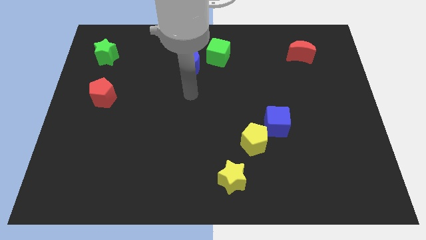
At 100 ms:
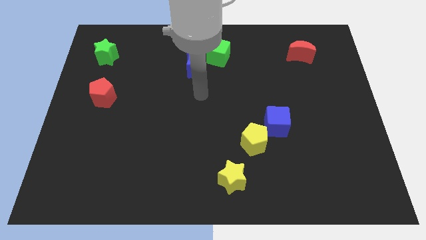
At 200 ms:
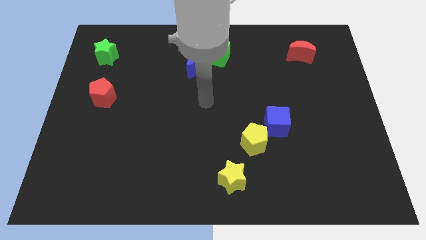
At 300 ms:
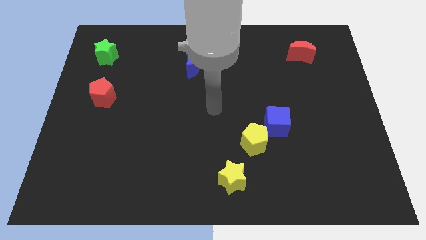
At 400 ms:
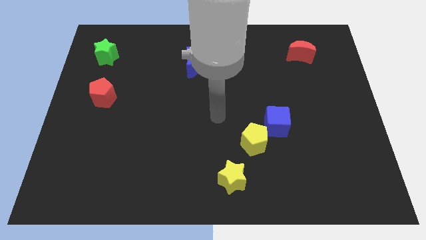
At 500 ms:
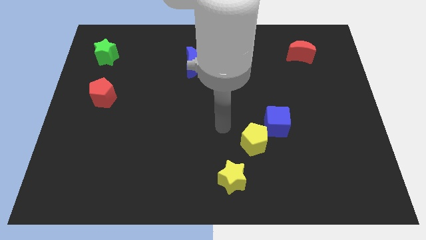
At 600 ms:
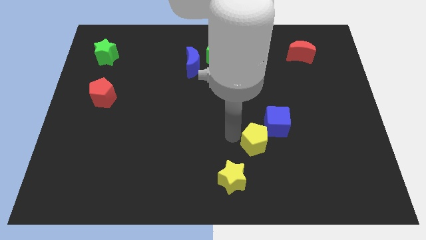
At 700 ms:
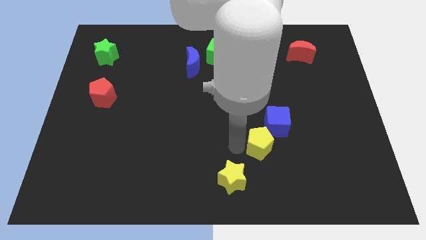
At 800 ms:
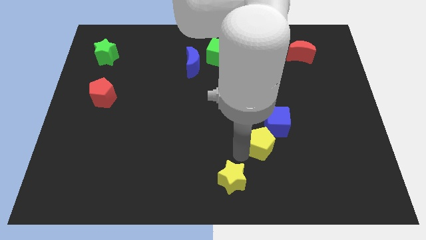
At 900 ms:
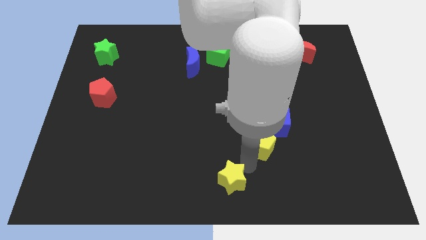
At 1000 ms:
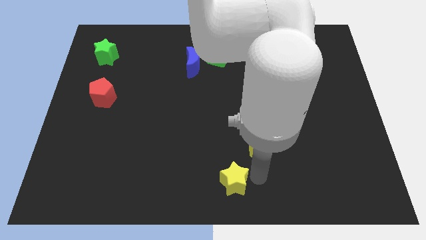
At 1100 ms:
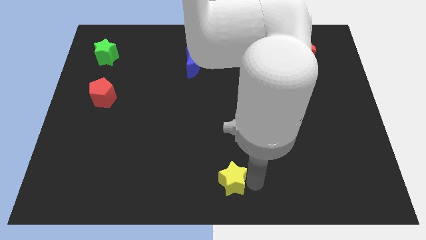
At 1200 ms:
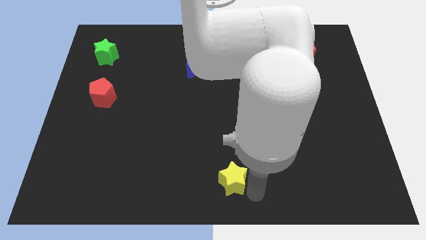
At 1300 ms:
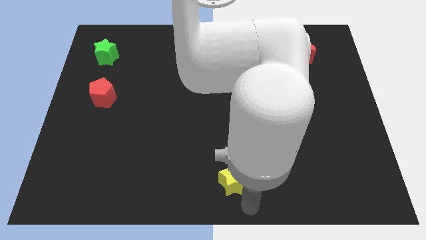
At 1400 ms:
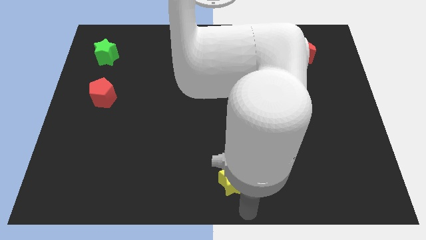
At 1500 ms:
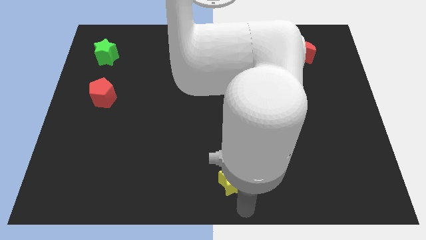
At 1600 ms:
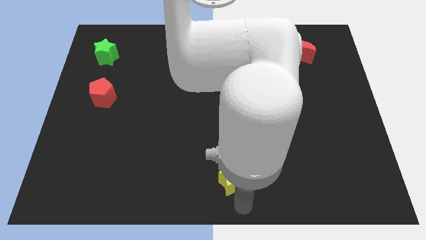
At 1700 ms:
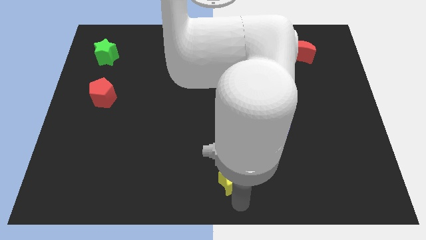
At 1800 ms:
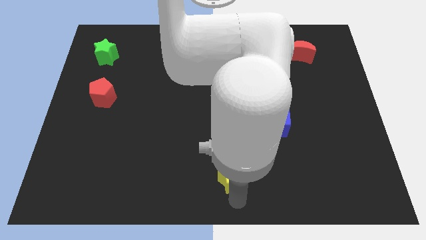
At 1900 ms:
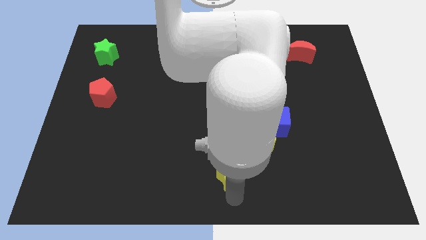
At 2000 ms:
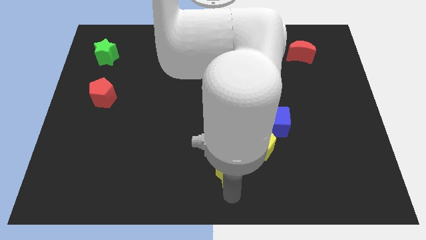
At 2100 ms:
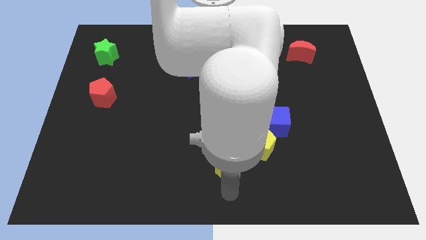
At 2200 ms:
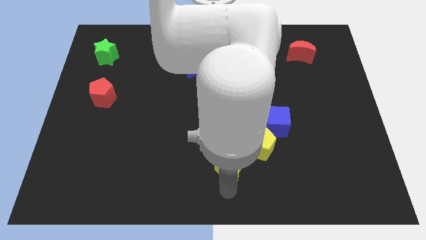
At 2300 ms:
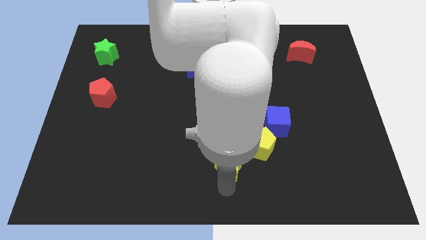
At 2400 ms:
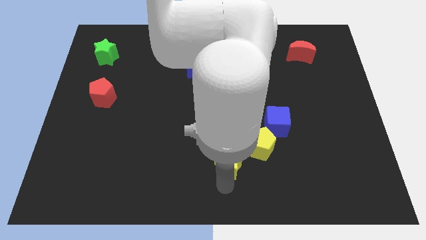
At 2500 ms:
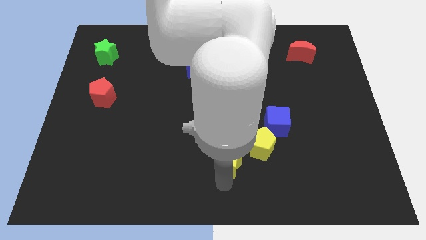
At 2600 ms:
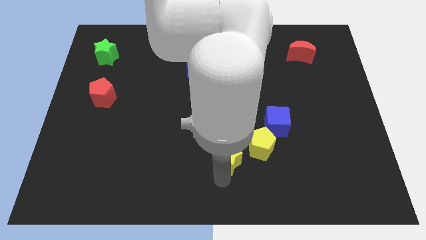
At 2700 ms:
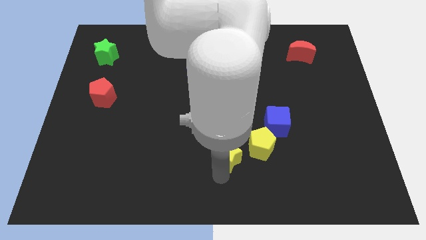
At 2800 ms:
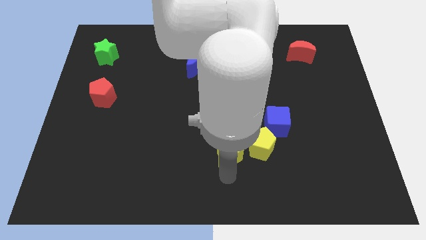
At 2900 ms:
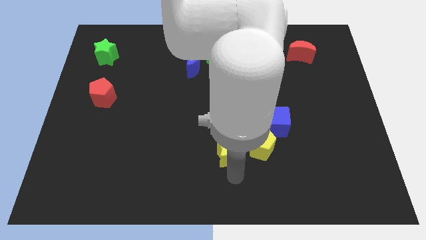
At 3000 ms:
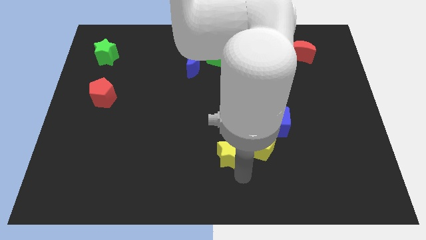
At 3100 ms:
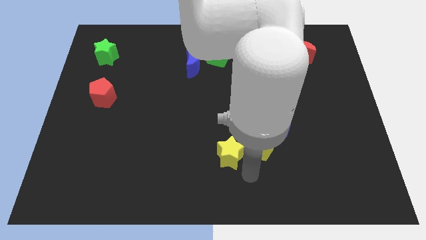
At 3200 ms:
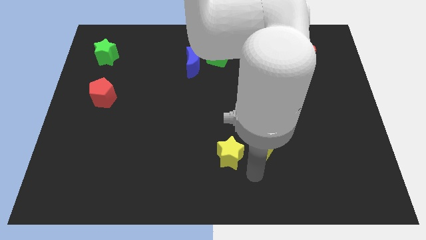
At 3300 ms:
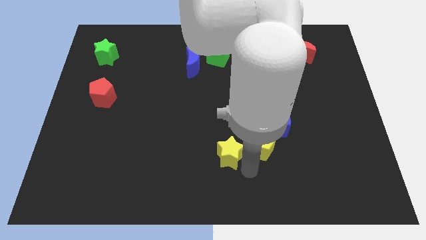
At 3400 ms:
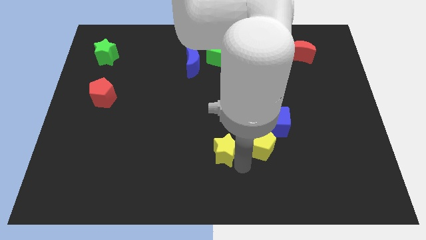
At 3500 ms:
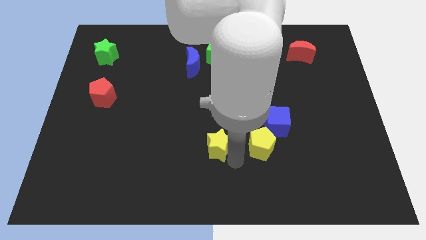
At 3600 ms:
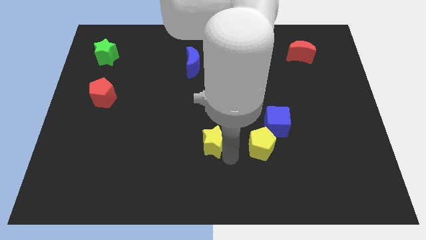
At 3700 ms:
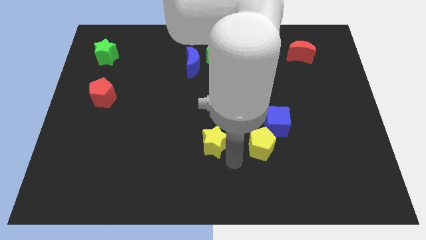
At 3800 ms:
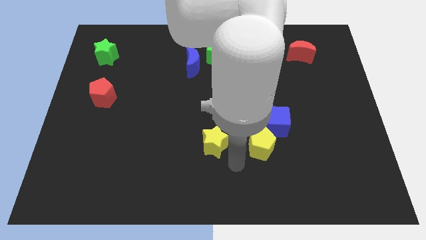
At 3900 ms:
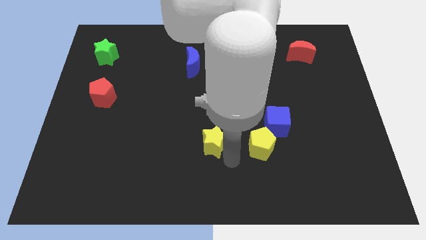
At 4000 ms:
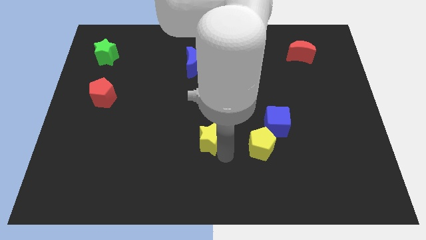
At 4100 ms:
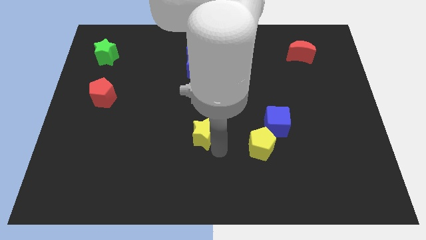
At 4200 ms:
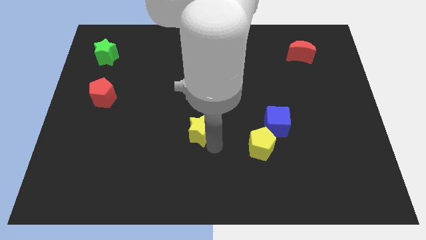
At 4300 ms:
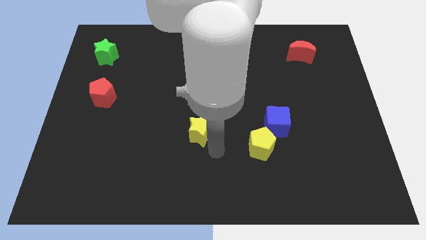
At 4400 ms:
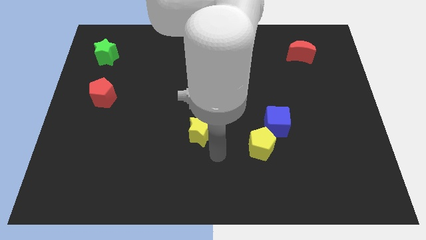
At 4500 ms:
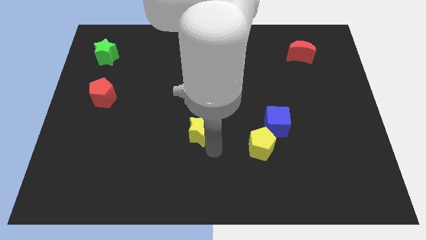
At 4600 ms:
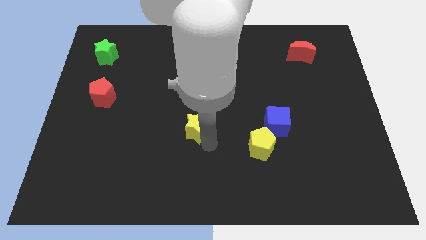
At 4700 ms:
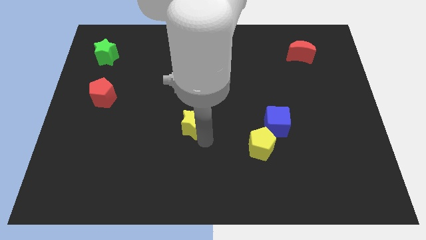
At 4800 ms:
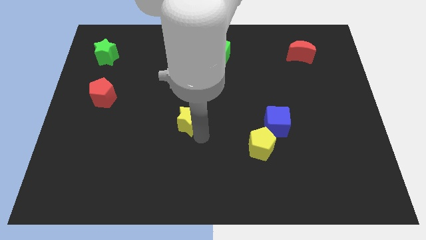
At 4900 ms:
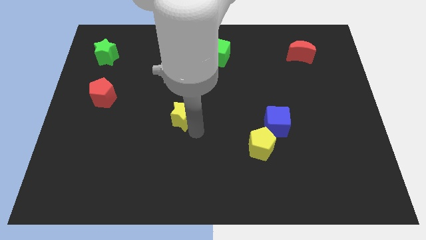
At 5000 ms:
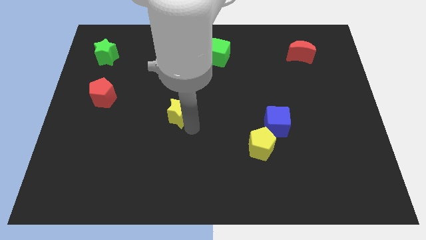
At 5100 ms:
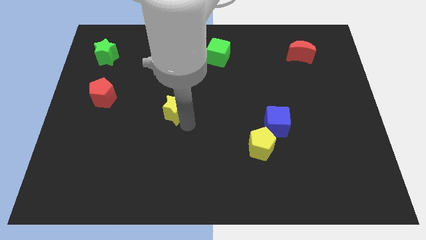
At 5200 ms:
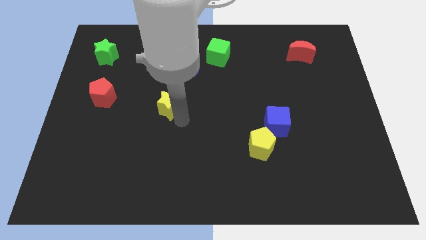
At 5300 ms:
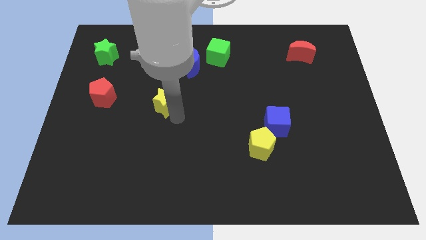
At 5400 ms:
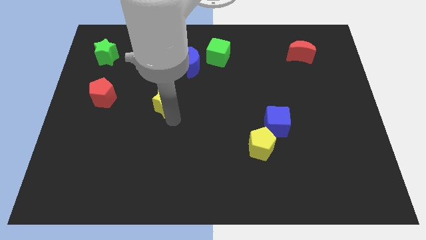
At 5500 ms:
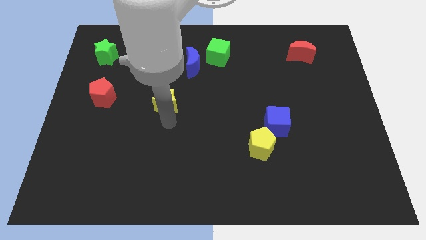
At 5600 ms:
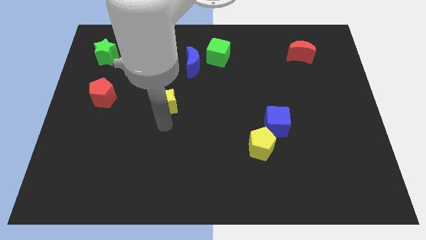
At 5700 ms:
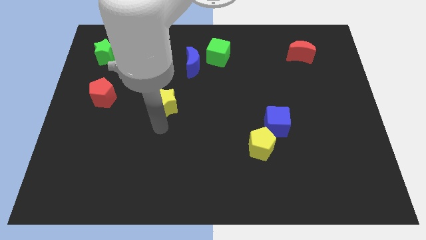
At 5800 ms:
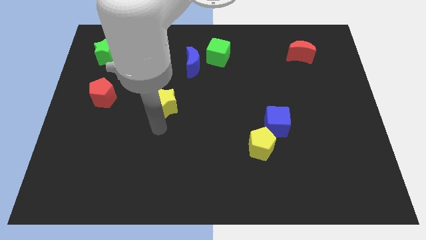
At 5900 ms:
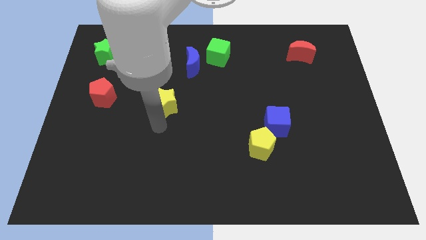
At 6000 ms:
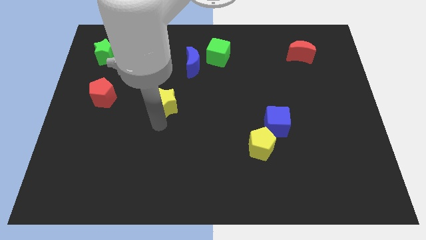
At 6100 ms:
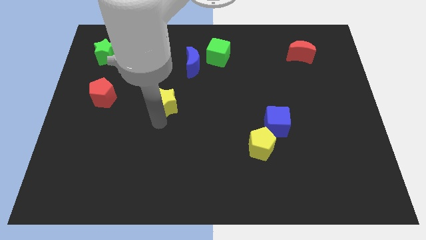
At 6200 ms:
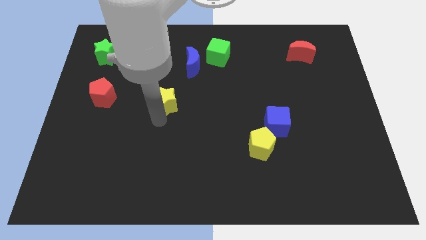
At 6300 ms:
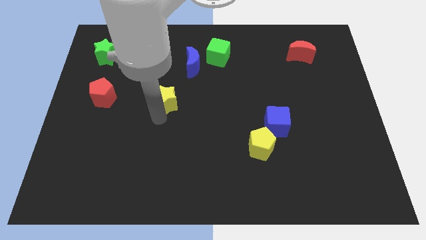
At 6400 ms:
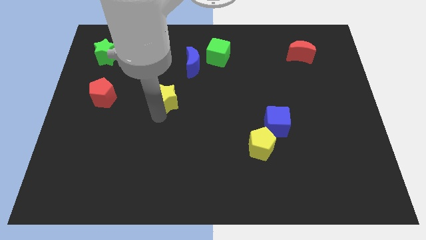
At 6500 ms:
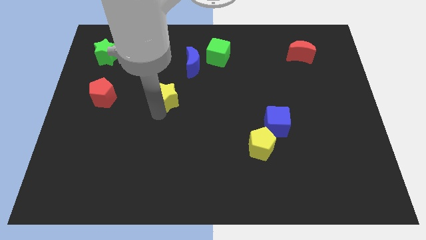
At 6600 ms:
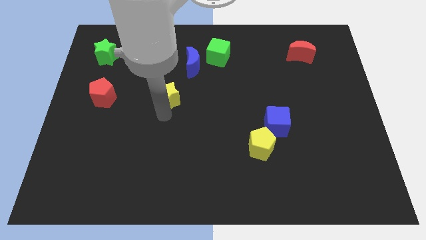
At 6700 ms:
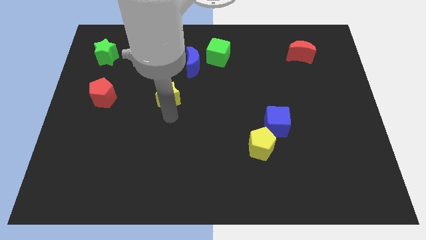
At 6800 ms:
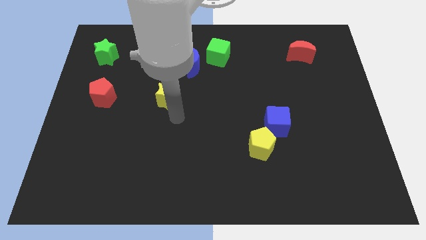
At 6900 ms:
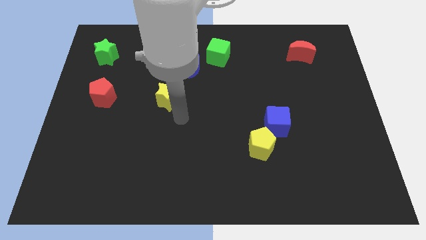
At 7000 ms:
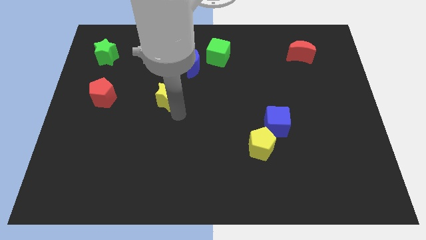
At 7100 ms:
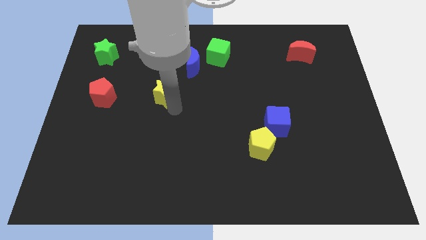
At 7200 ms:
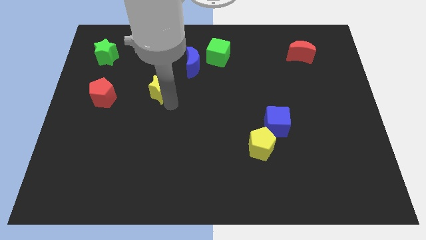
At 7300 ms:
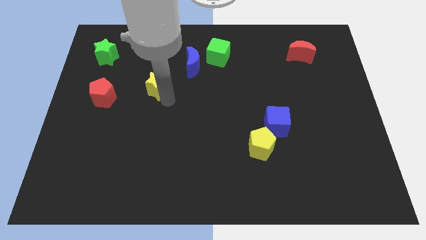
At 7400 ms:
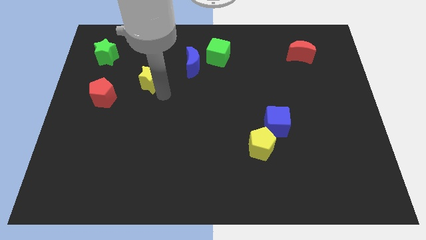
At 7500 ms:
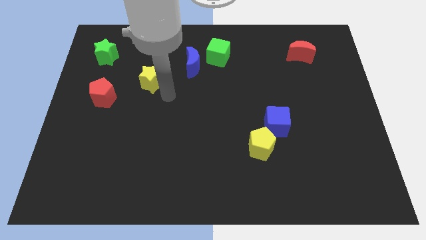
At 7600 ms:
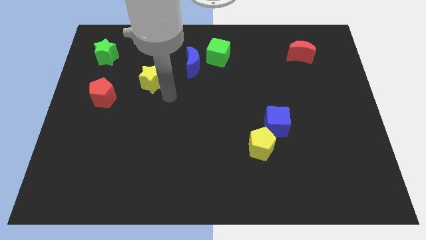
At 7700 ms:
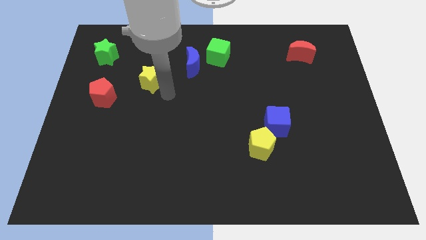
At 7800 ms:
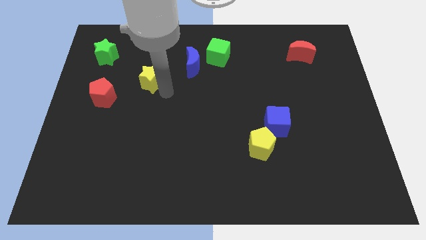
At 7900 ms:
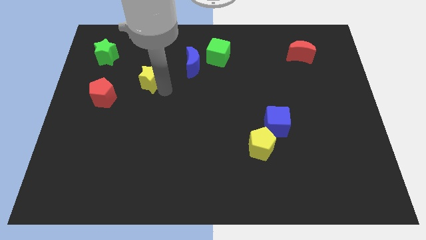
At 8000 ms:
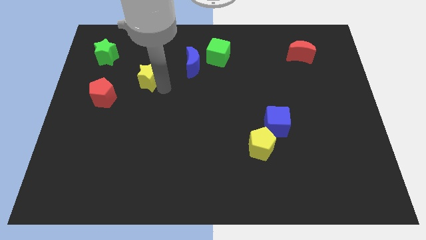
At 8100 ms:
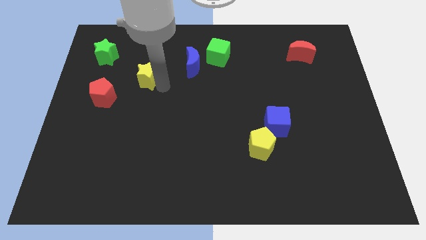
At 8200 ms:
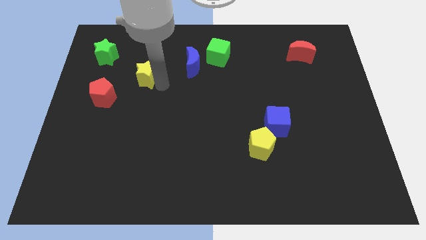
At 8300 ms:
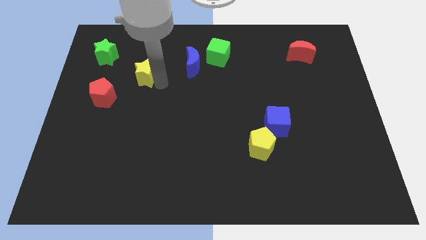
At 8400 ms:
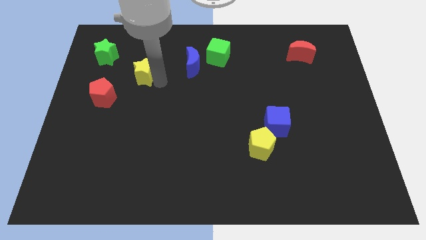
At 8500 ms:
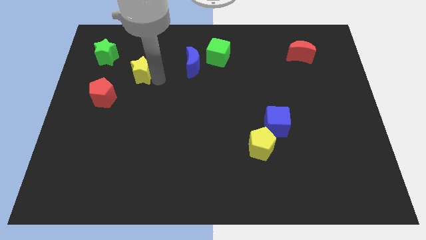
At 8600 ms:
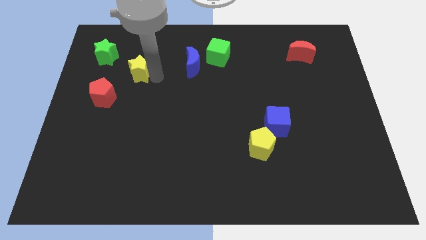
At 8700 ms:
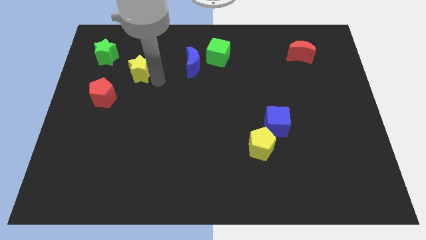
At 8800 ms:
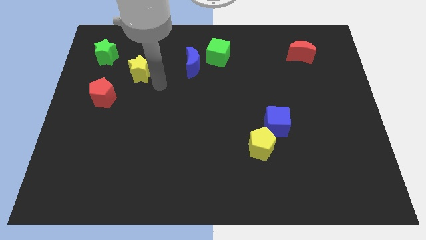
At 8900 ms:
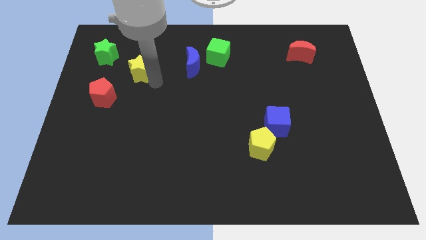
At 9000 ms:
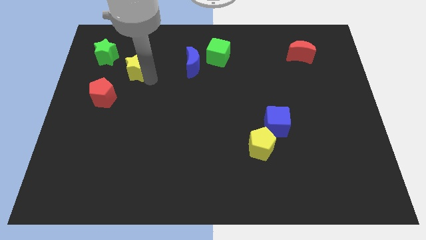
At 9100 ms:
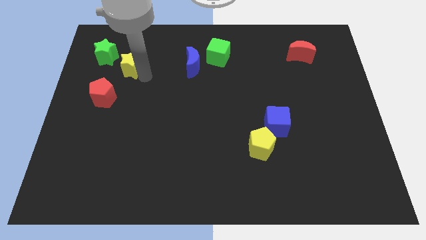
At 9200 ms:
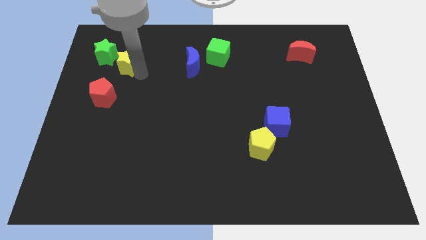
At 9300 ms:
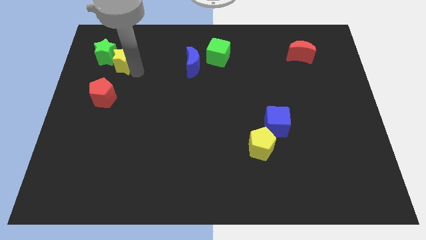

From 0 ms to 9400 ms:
push the yellow star to the green star
